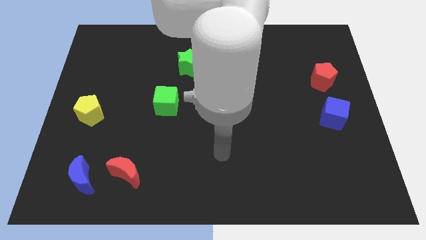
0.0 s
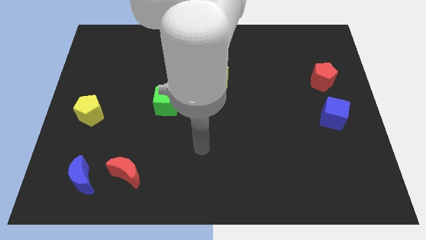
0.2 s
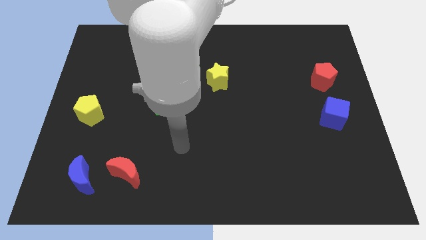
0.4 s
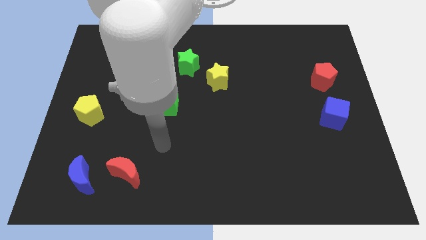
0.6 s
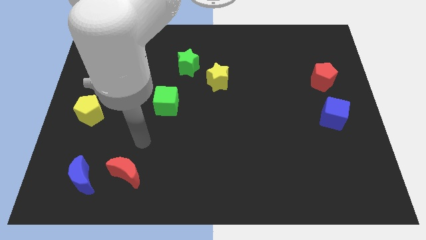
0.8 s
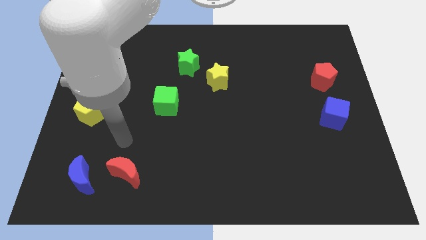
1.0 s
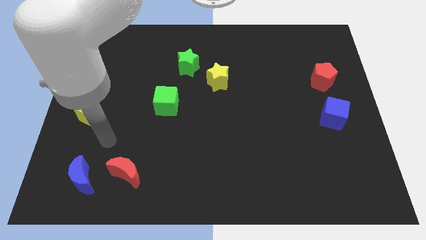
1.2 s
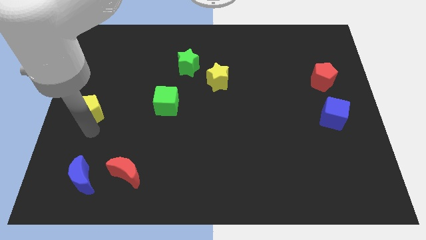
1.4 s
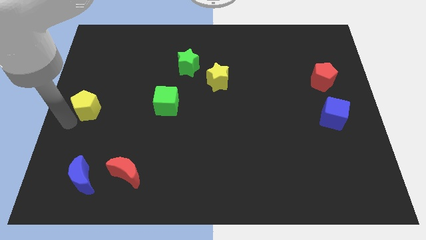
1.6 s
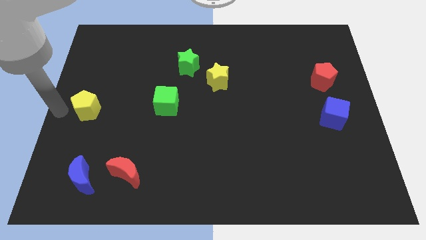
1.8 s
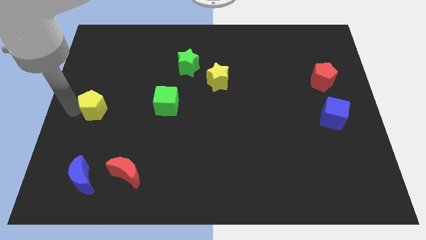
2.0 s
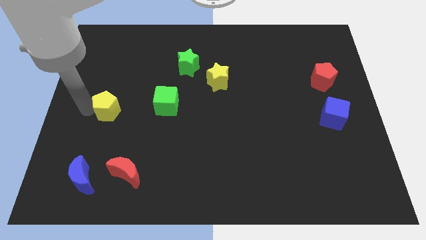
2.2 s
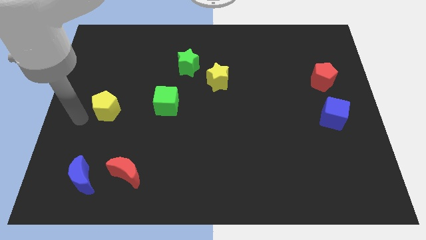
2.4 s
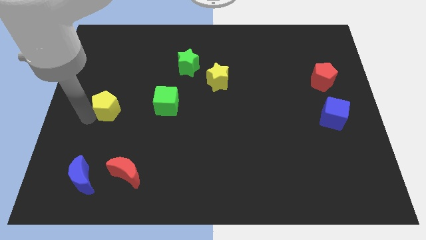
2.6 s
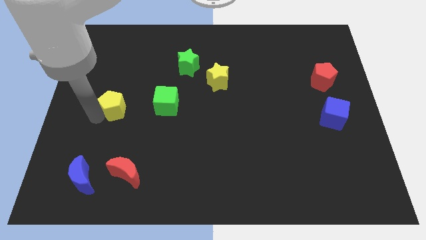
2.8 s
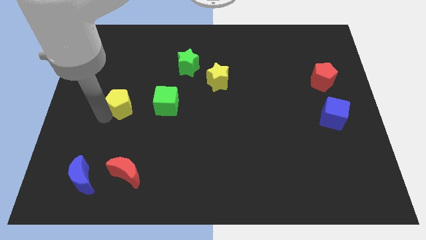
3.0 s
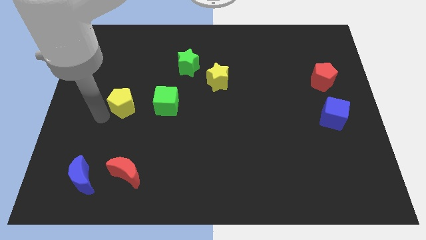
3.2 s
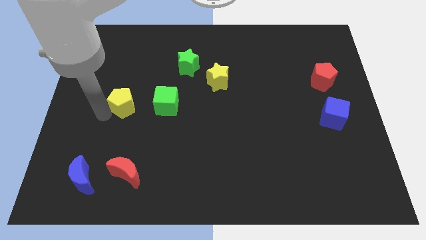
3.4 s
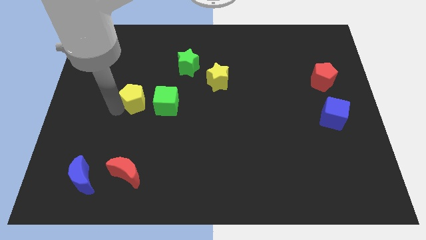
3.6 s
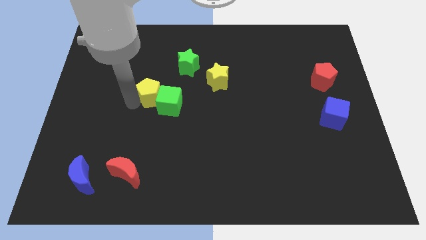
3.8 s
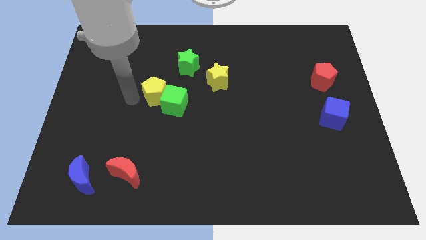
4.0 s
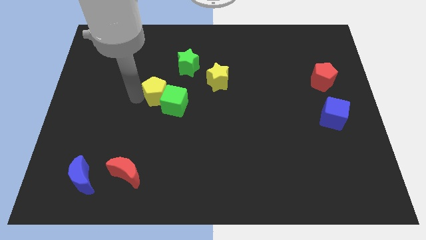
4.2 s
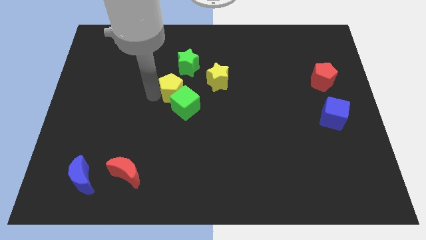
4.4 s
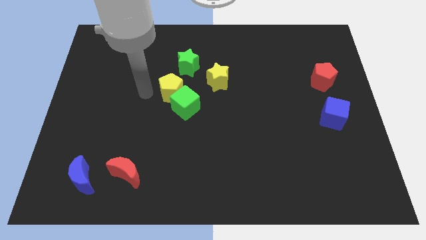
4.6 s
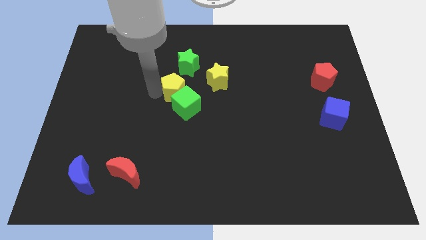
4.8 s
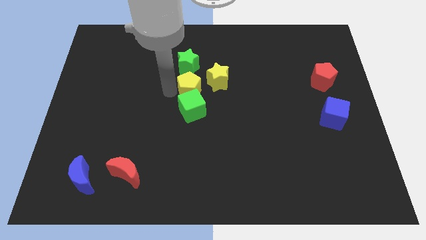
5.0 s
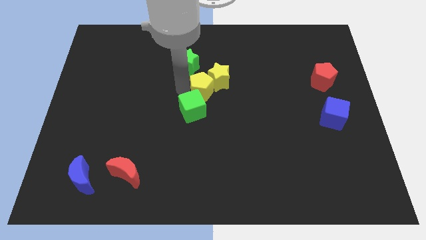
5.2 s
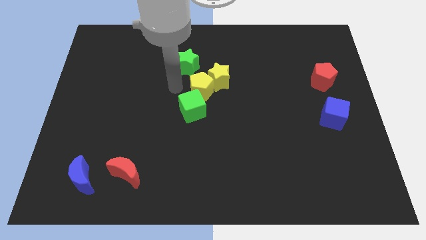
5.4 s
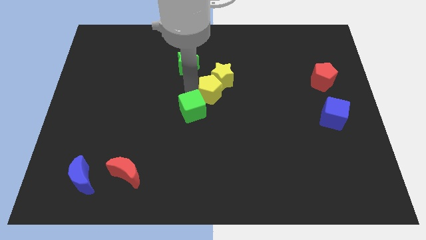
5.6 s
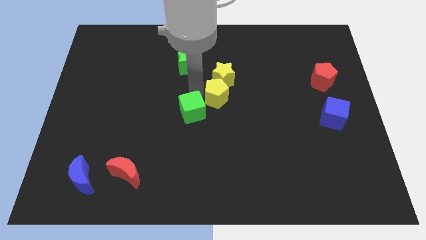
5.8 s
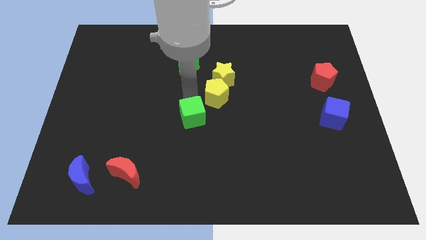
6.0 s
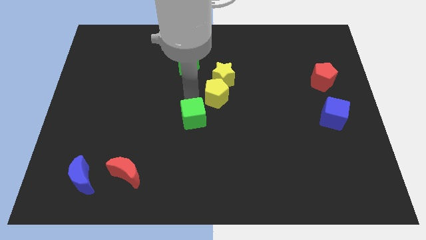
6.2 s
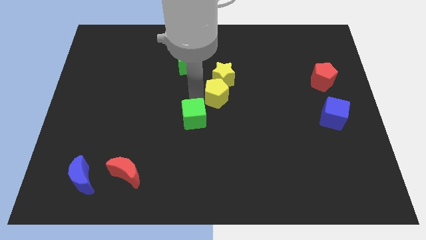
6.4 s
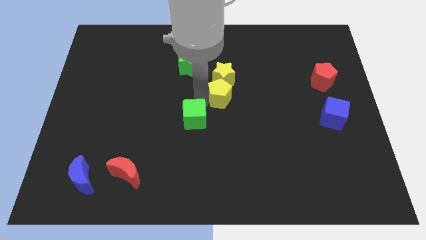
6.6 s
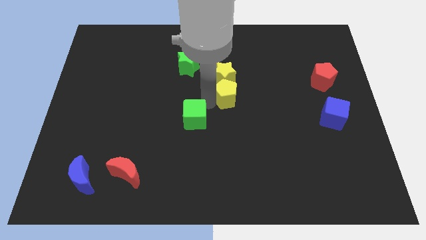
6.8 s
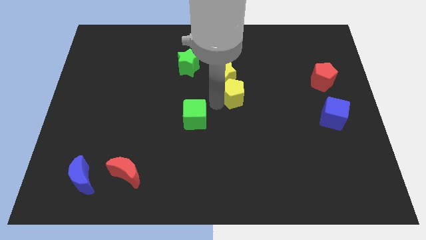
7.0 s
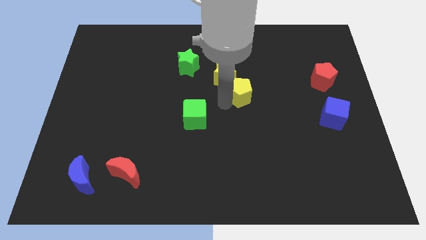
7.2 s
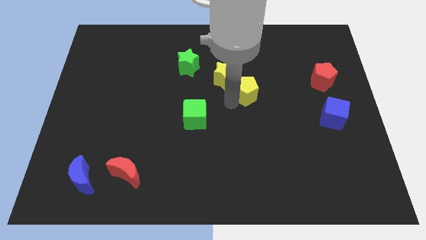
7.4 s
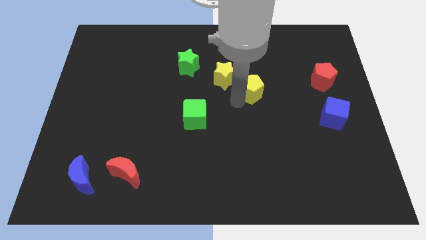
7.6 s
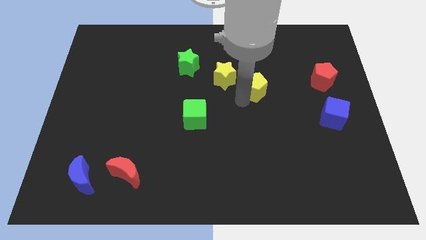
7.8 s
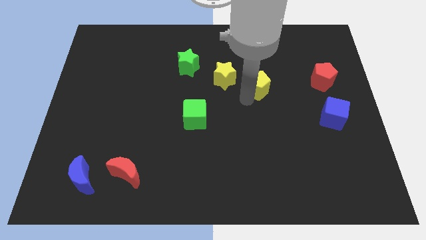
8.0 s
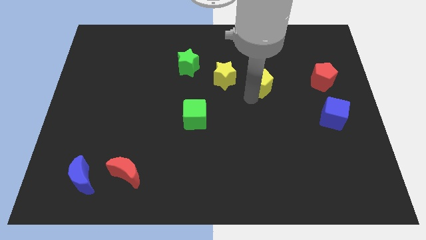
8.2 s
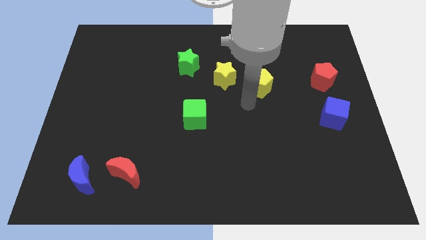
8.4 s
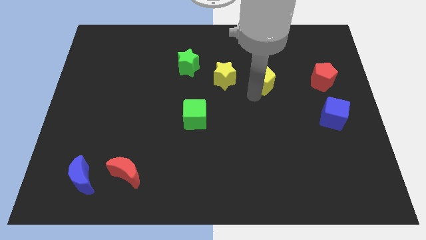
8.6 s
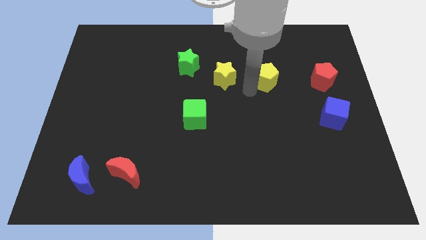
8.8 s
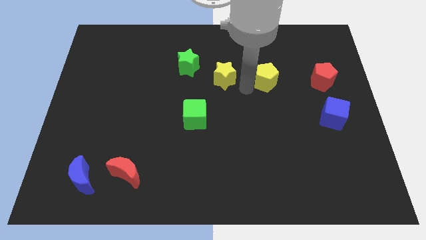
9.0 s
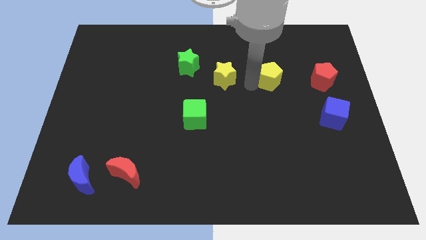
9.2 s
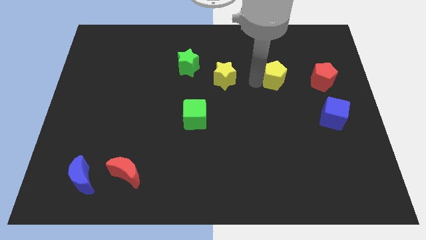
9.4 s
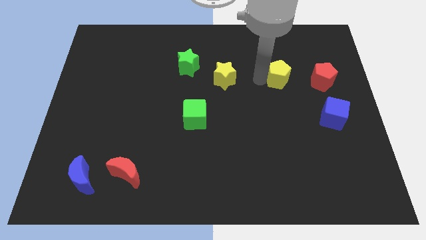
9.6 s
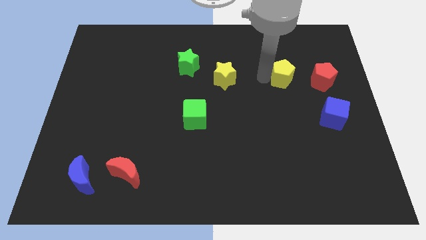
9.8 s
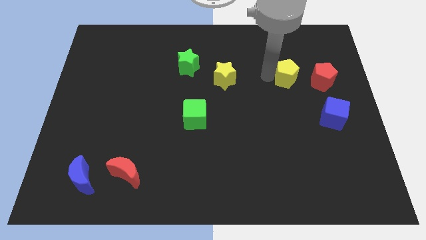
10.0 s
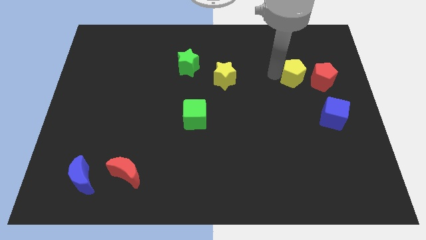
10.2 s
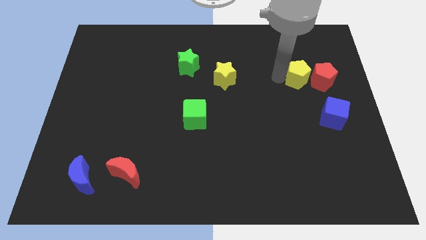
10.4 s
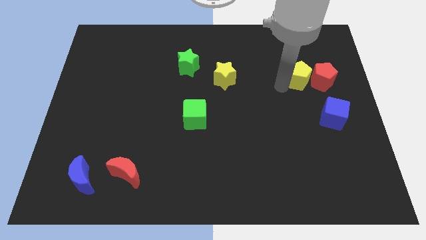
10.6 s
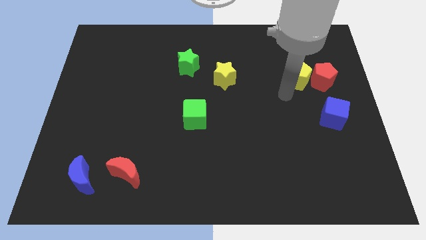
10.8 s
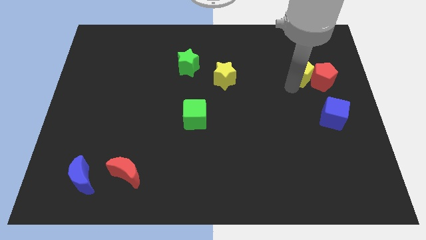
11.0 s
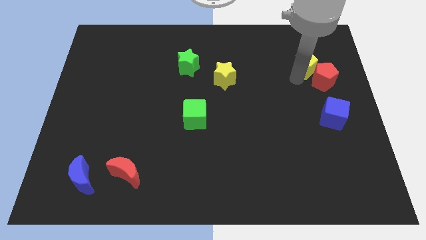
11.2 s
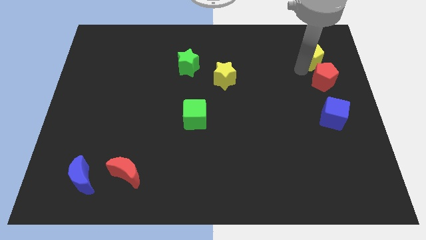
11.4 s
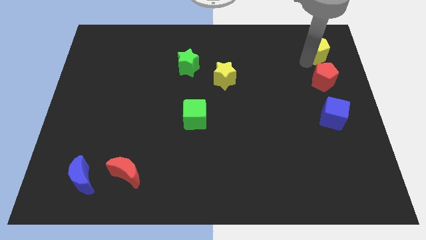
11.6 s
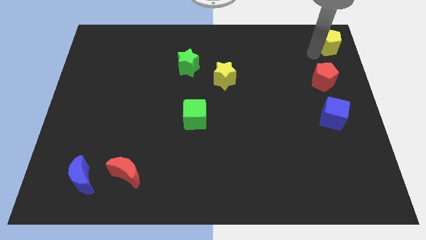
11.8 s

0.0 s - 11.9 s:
push the yellow pentagon to the top right
